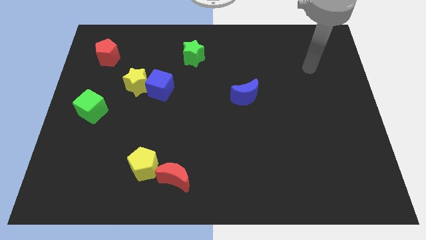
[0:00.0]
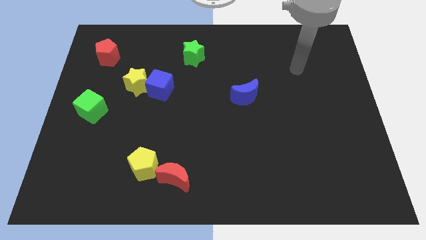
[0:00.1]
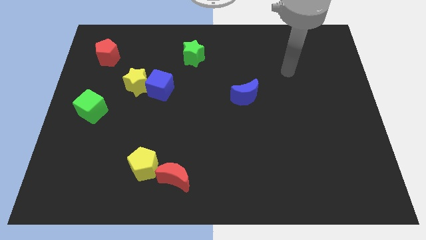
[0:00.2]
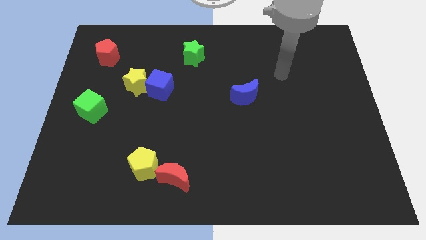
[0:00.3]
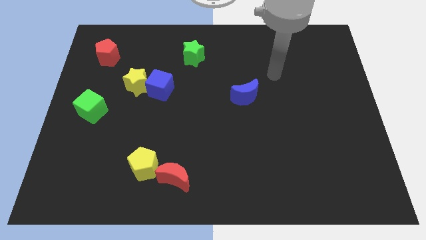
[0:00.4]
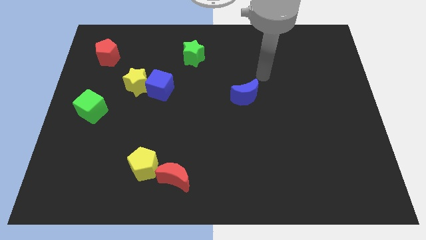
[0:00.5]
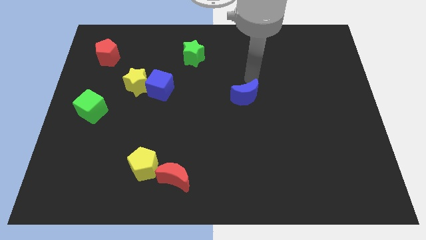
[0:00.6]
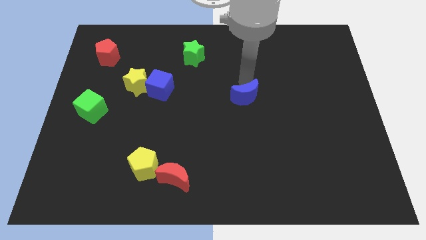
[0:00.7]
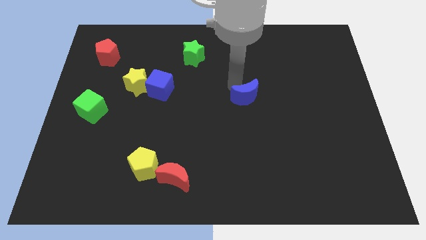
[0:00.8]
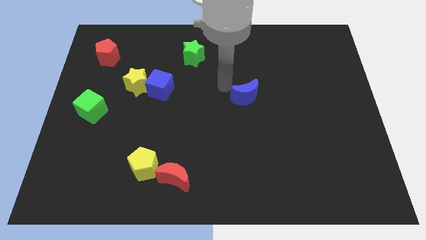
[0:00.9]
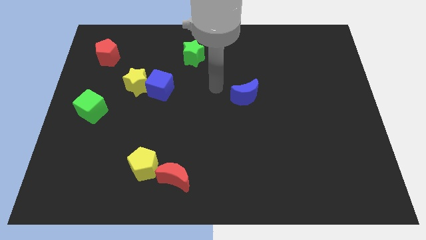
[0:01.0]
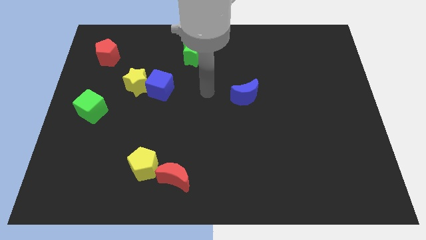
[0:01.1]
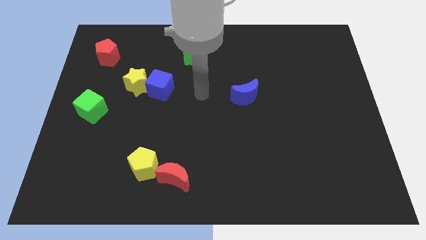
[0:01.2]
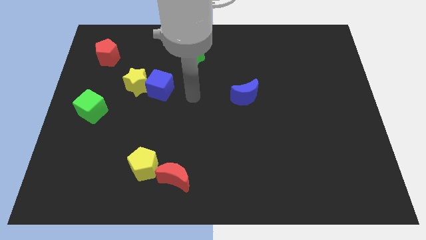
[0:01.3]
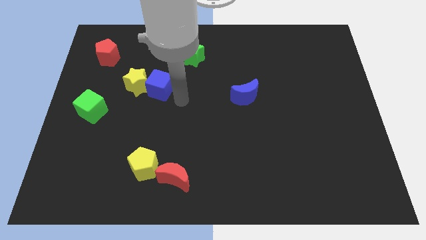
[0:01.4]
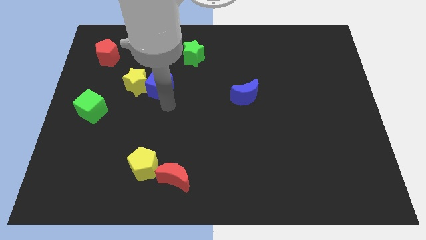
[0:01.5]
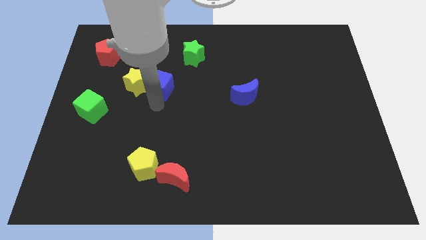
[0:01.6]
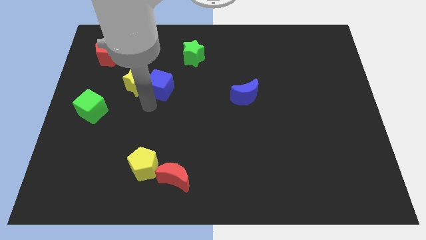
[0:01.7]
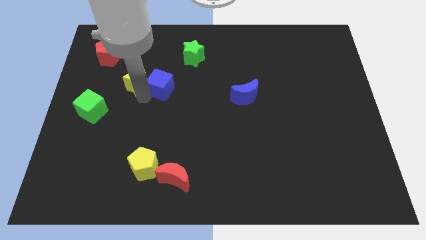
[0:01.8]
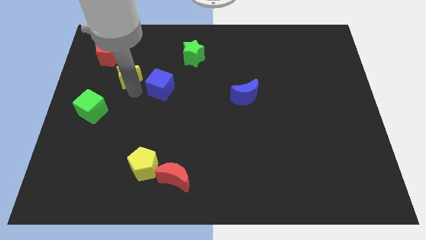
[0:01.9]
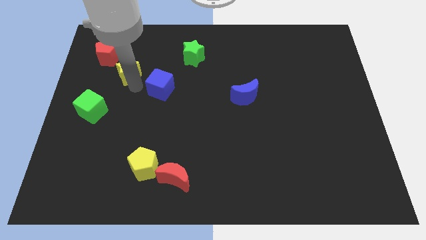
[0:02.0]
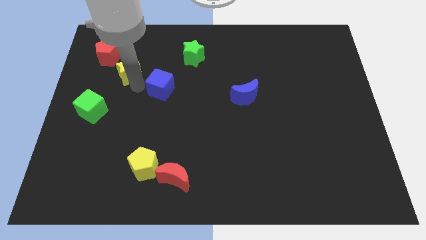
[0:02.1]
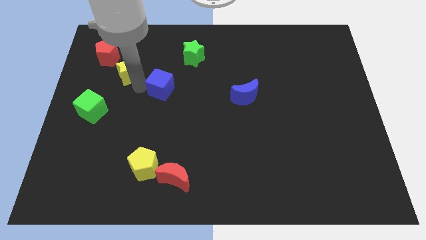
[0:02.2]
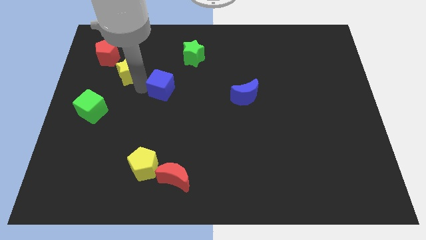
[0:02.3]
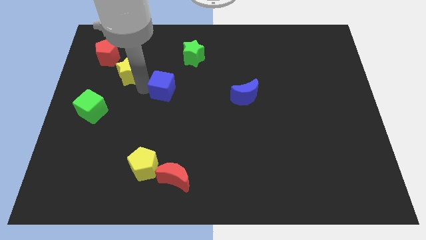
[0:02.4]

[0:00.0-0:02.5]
separate the blue cube from the yellow star

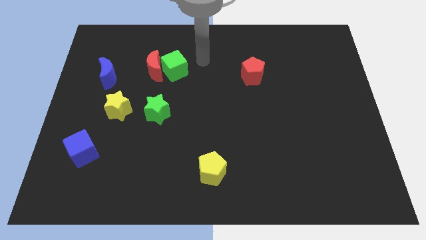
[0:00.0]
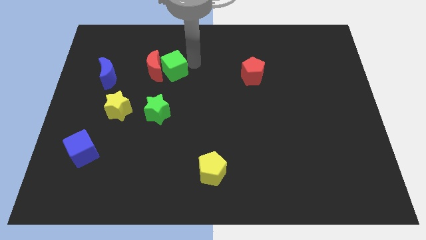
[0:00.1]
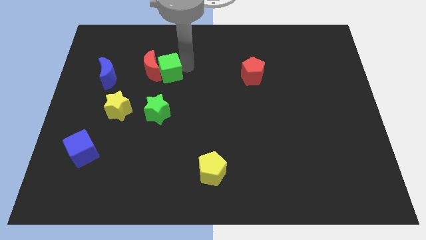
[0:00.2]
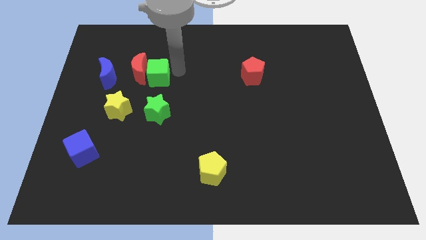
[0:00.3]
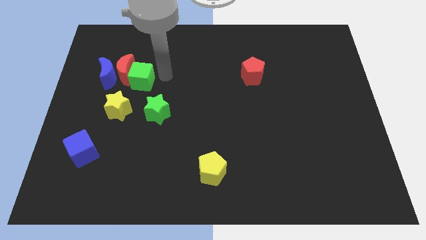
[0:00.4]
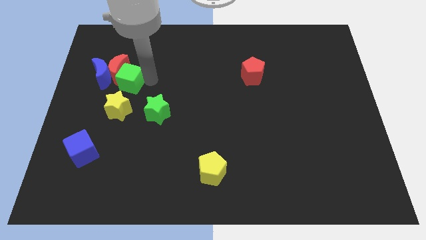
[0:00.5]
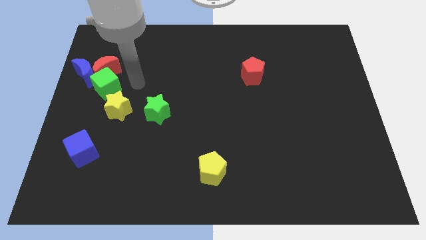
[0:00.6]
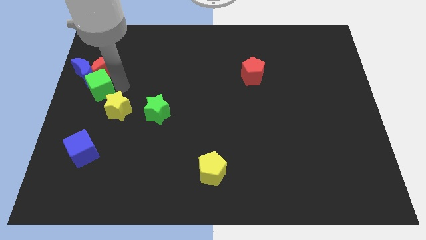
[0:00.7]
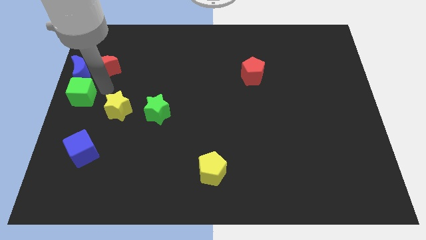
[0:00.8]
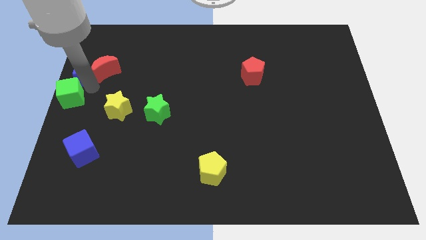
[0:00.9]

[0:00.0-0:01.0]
move the red moon away from the green cube

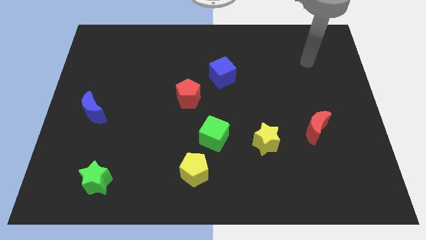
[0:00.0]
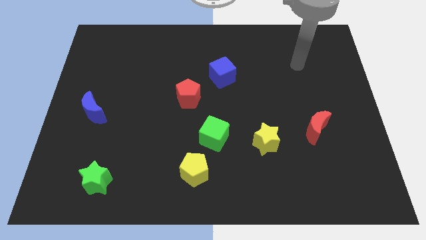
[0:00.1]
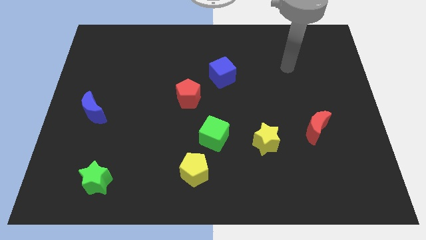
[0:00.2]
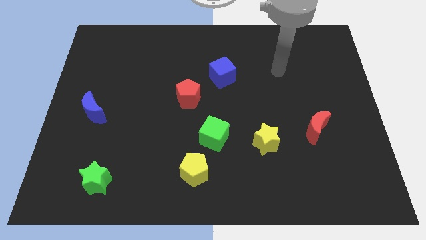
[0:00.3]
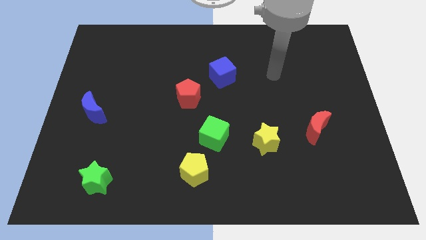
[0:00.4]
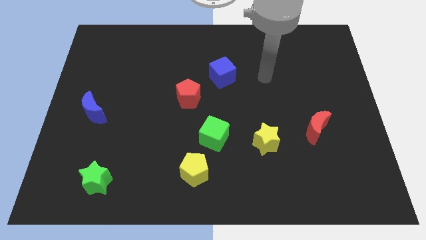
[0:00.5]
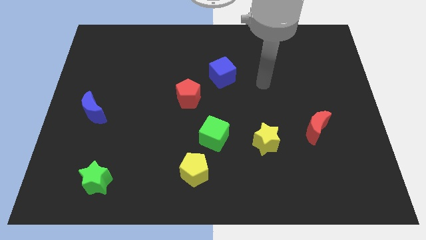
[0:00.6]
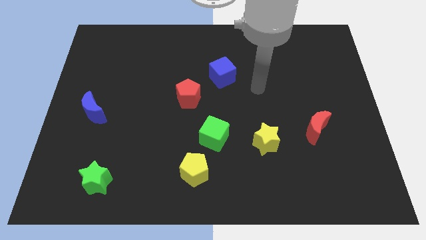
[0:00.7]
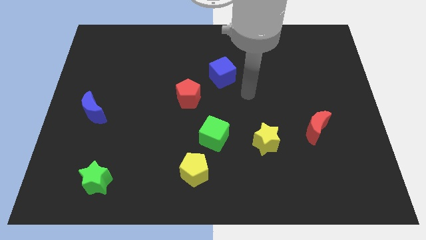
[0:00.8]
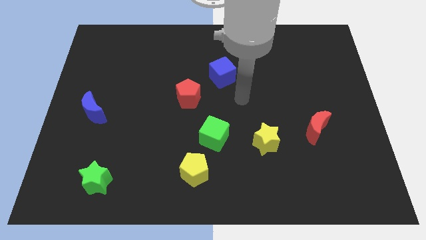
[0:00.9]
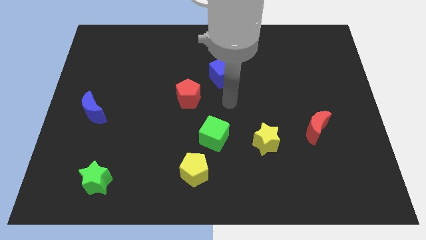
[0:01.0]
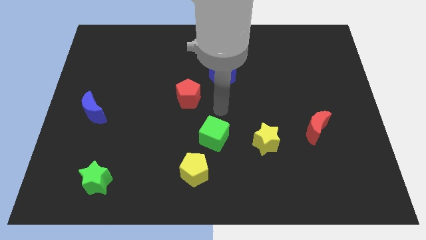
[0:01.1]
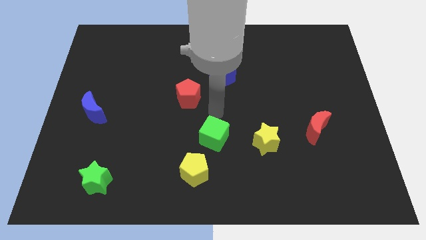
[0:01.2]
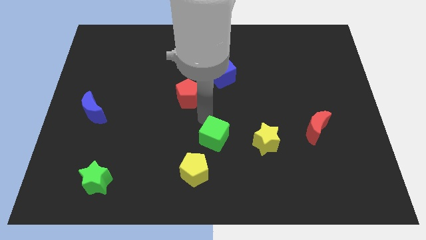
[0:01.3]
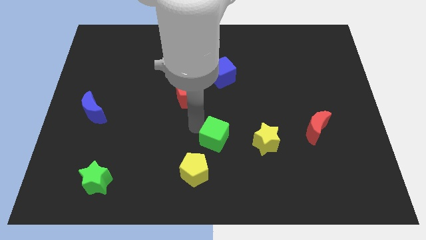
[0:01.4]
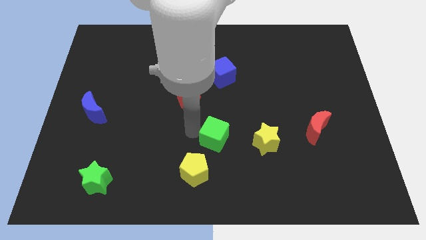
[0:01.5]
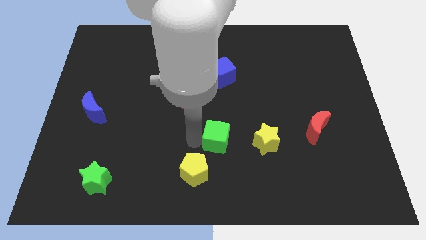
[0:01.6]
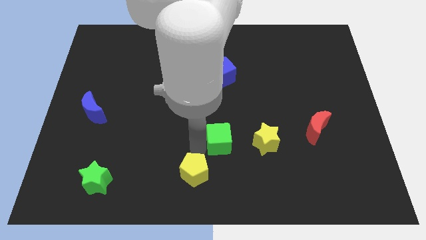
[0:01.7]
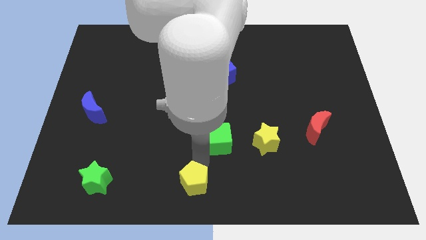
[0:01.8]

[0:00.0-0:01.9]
move the green cube away from the yellow pentagon

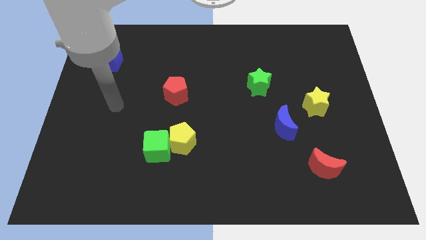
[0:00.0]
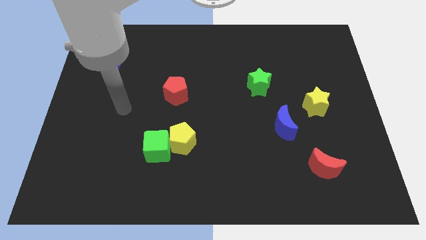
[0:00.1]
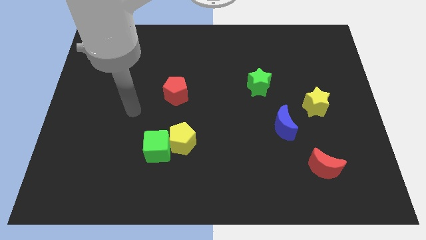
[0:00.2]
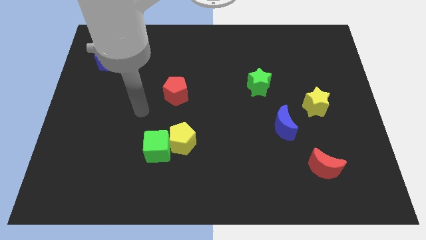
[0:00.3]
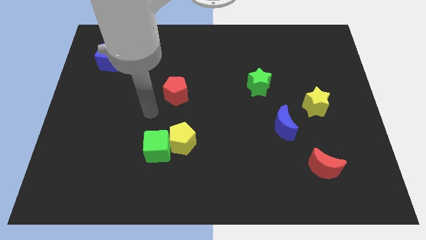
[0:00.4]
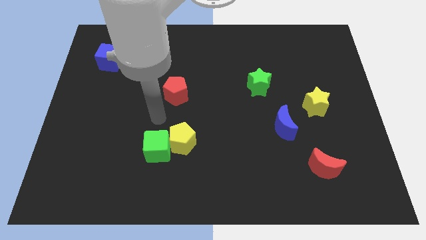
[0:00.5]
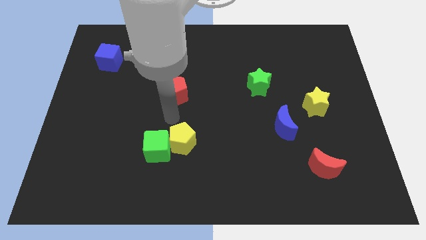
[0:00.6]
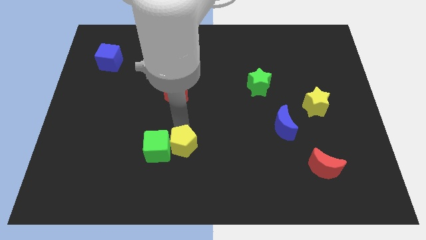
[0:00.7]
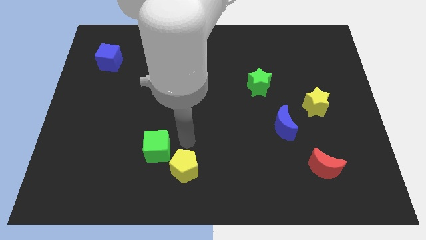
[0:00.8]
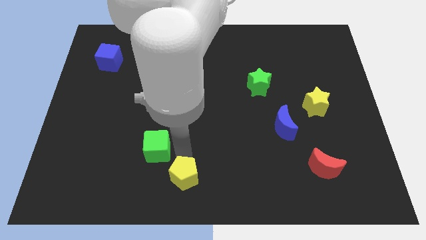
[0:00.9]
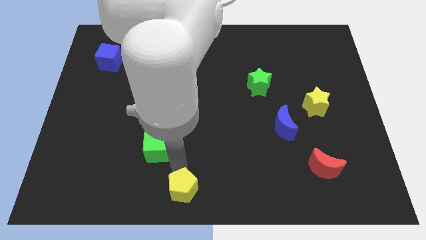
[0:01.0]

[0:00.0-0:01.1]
separate the green cube from the yellow pentagon

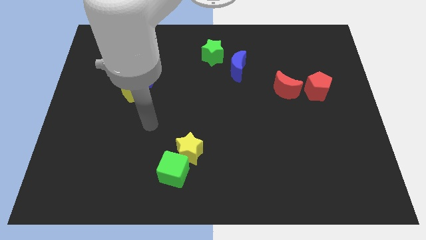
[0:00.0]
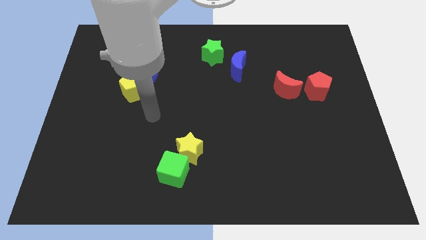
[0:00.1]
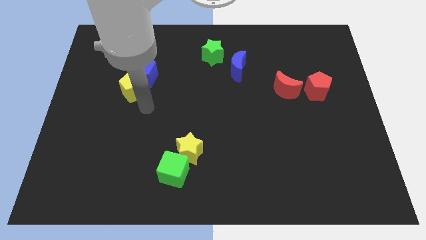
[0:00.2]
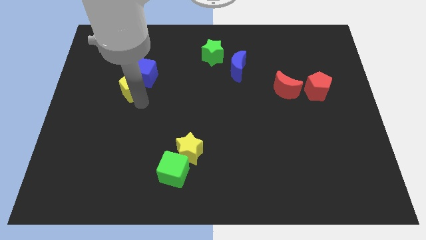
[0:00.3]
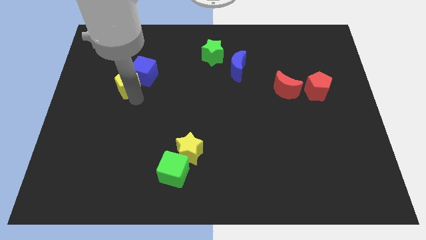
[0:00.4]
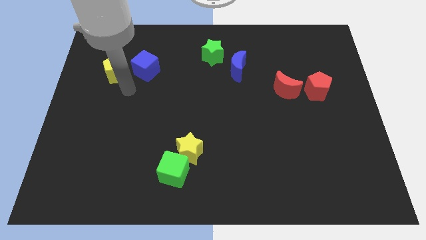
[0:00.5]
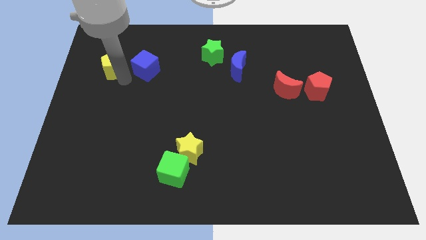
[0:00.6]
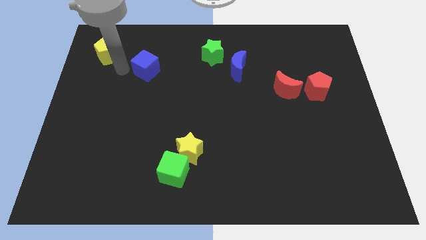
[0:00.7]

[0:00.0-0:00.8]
separate the blue cube from the yellow pentagon

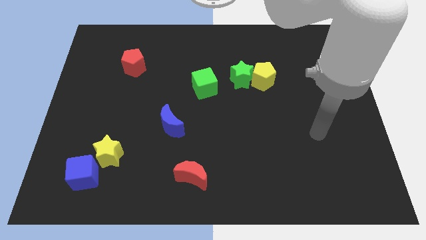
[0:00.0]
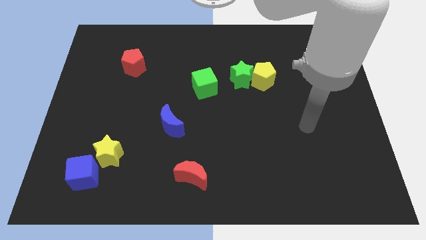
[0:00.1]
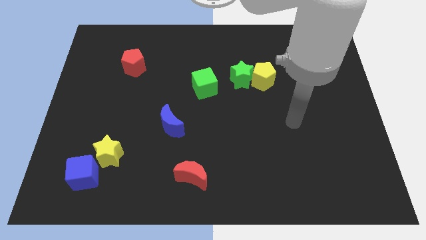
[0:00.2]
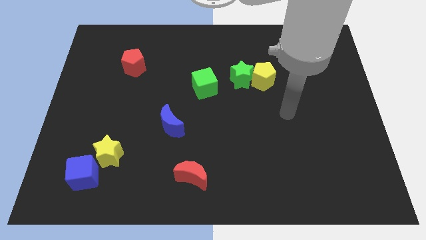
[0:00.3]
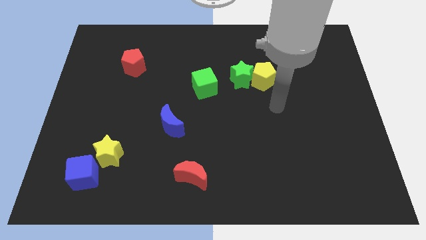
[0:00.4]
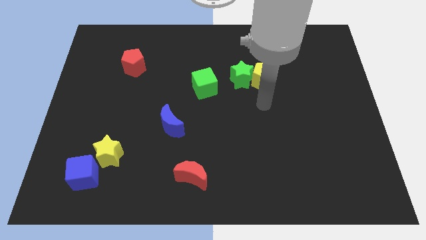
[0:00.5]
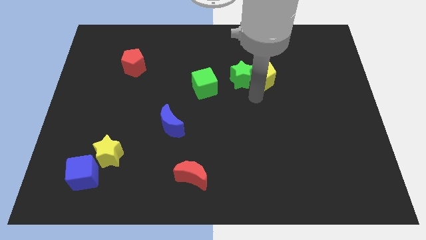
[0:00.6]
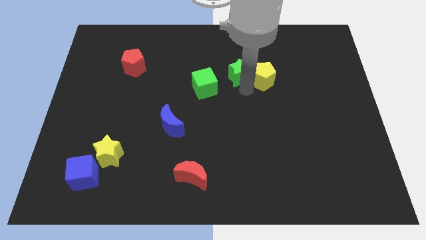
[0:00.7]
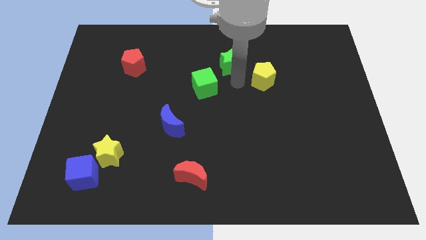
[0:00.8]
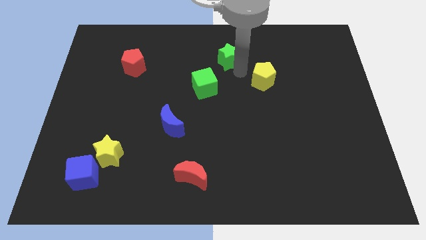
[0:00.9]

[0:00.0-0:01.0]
pull the yellow pentagon apart from the green star

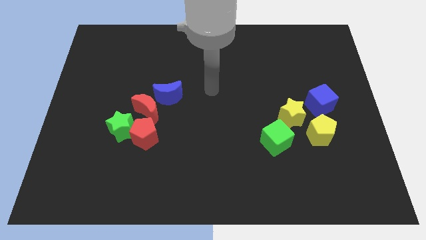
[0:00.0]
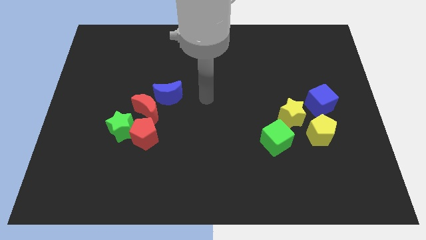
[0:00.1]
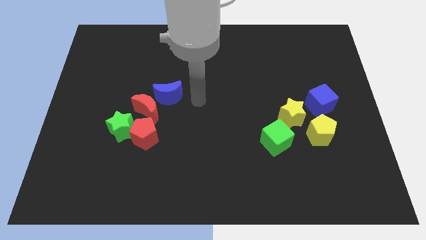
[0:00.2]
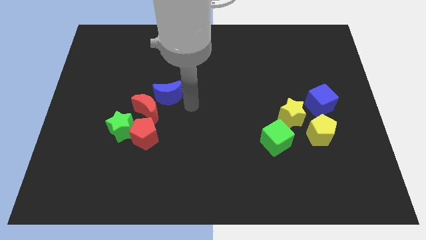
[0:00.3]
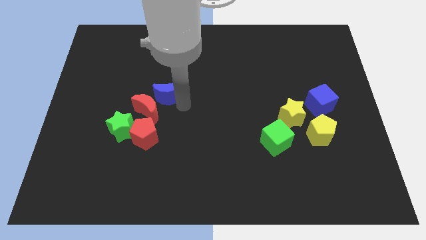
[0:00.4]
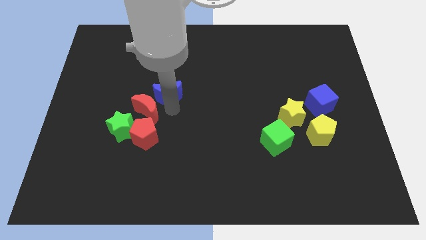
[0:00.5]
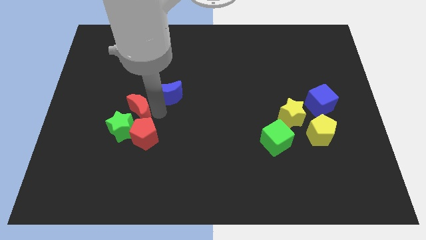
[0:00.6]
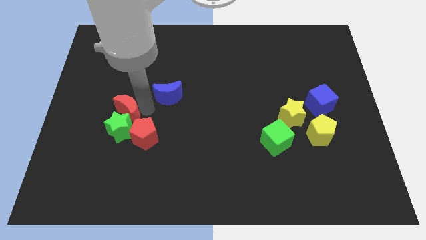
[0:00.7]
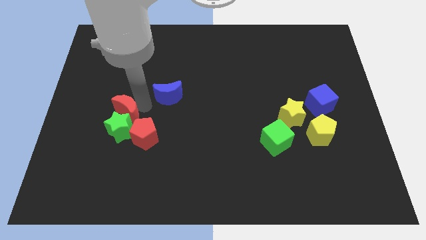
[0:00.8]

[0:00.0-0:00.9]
move the blue moon away from the red moon

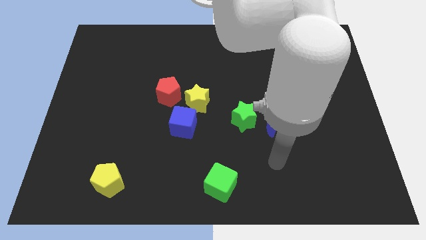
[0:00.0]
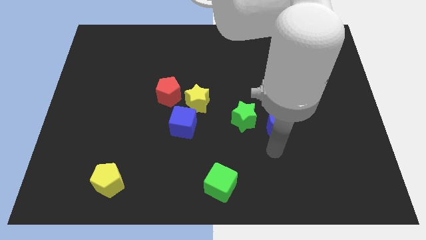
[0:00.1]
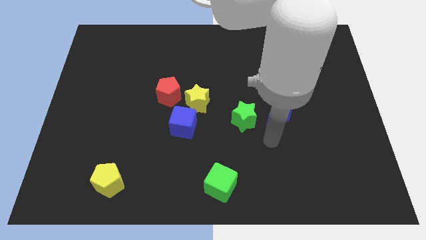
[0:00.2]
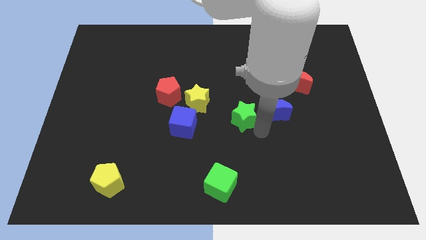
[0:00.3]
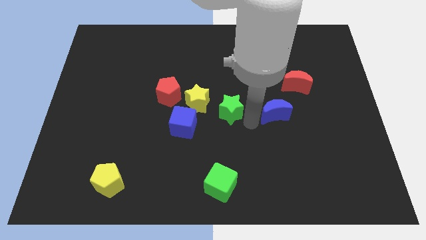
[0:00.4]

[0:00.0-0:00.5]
separate the blue moon from the green star
